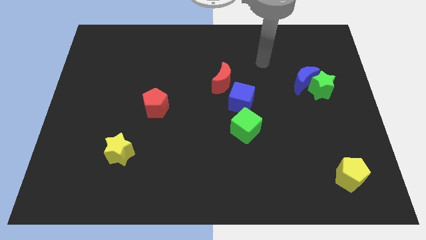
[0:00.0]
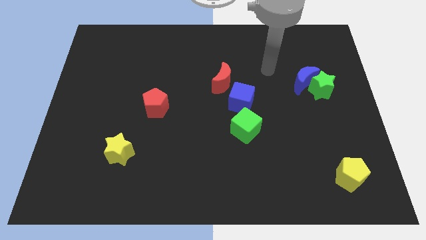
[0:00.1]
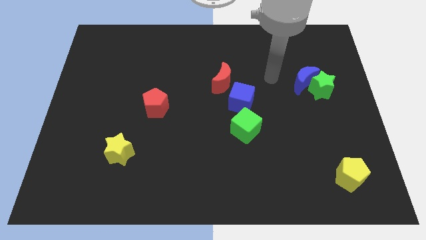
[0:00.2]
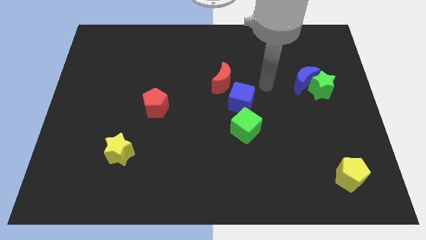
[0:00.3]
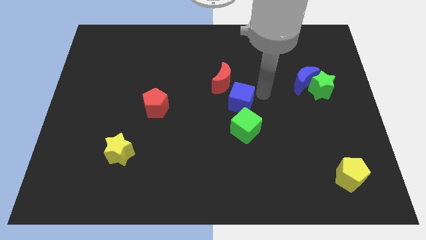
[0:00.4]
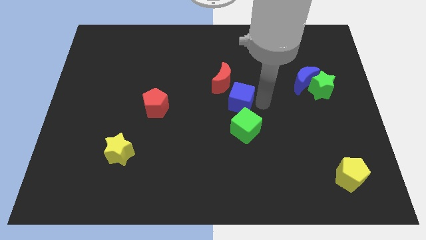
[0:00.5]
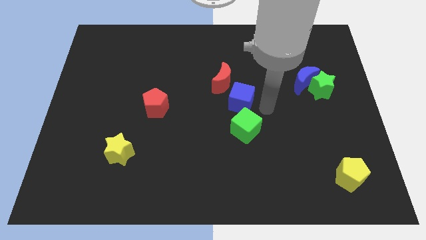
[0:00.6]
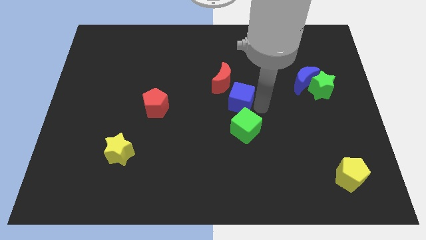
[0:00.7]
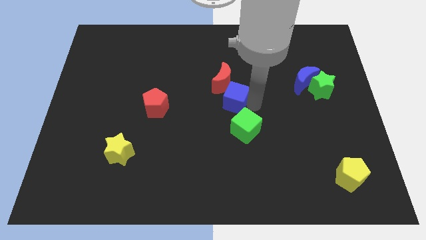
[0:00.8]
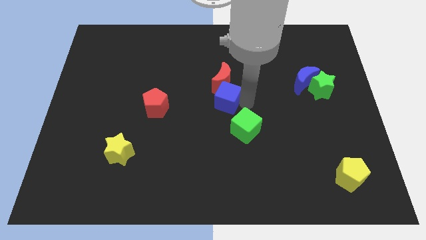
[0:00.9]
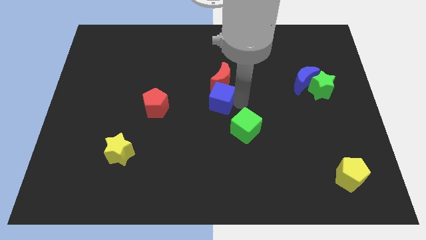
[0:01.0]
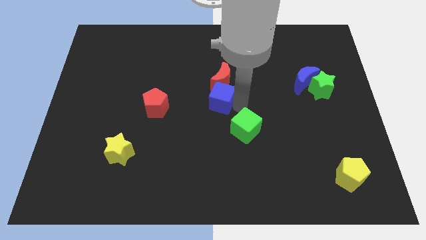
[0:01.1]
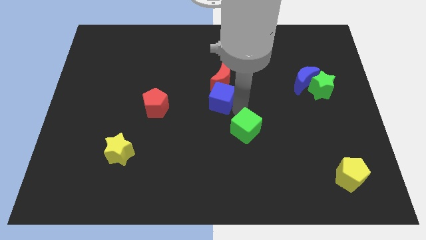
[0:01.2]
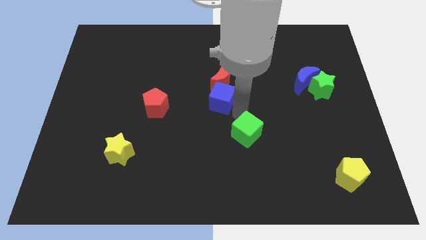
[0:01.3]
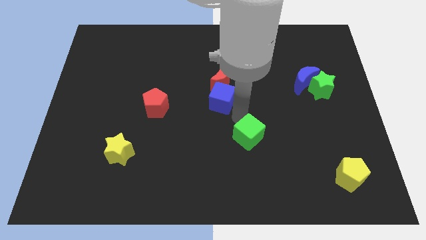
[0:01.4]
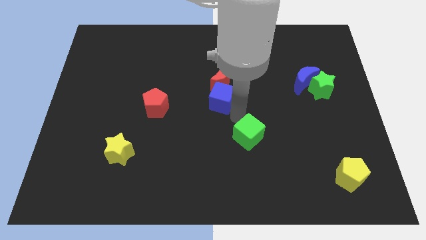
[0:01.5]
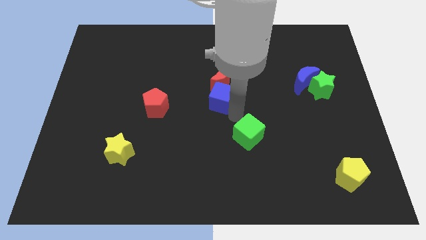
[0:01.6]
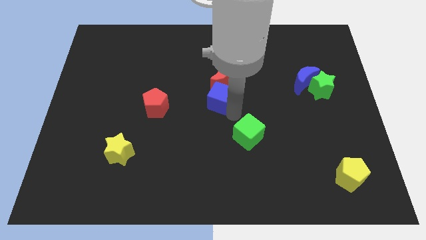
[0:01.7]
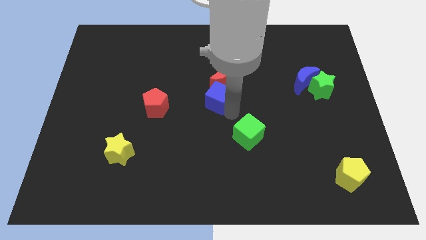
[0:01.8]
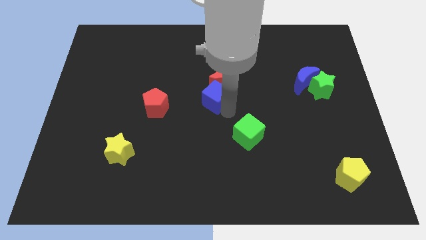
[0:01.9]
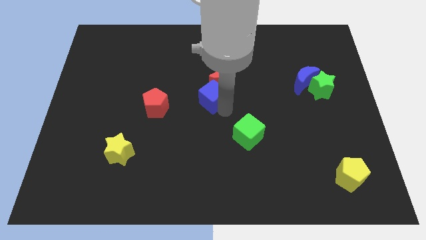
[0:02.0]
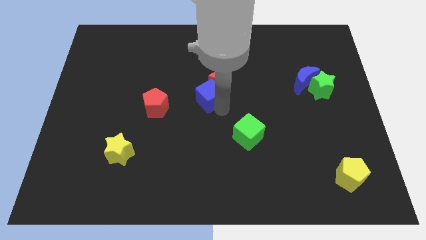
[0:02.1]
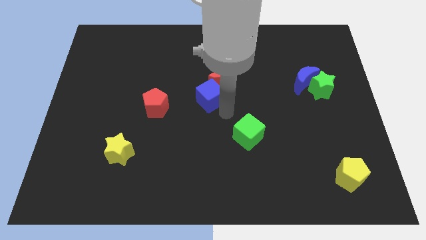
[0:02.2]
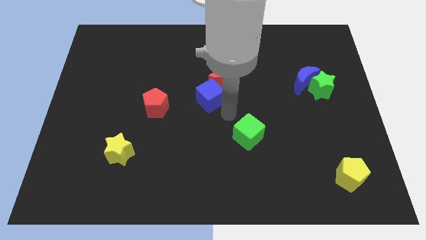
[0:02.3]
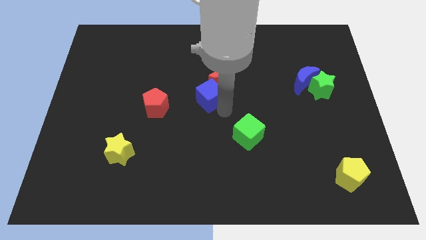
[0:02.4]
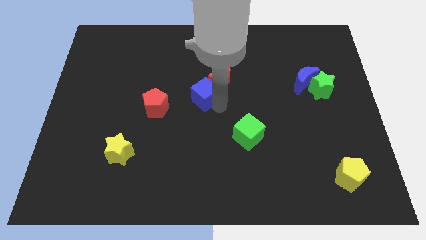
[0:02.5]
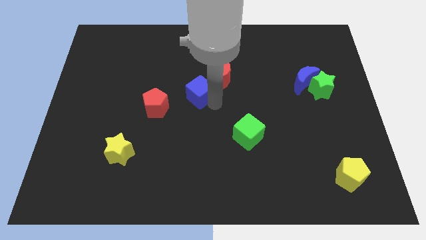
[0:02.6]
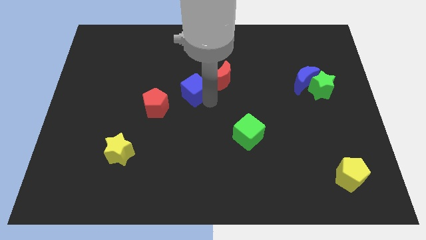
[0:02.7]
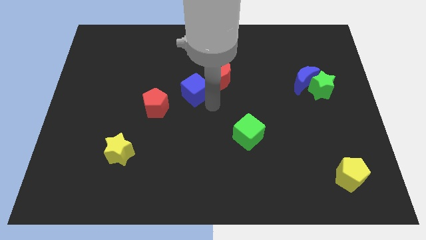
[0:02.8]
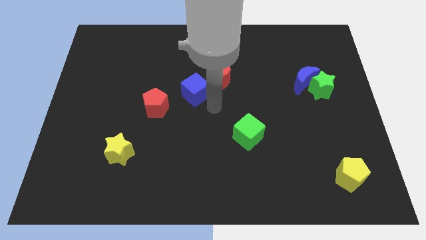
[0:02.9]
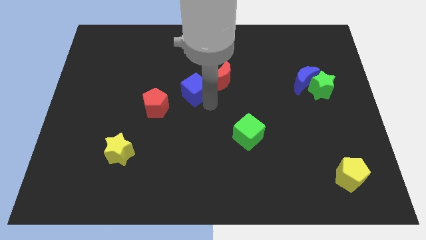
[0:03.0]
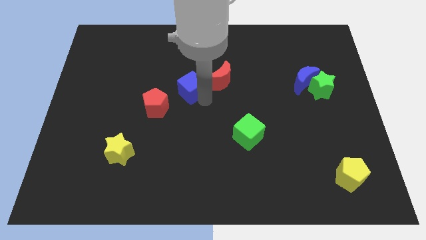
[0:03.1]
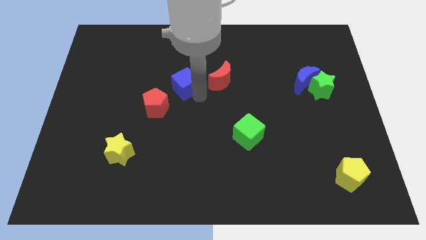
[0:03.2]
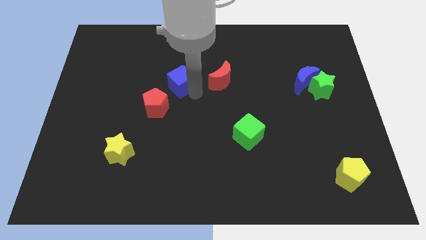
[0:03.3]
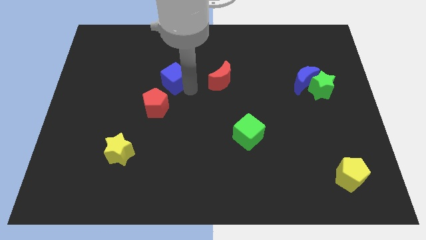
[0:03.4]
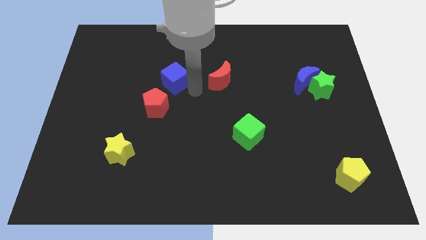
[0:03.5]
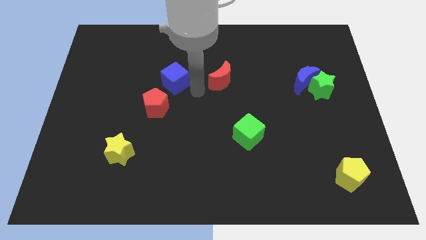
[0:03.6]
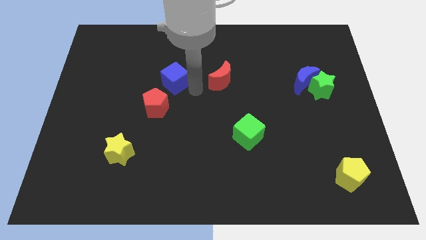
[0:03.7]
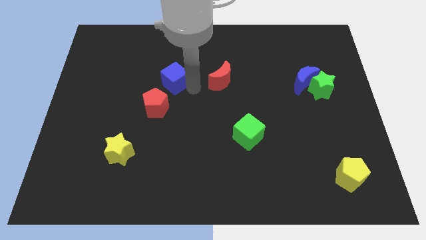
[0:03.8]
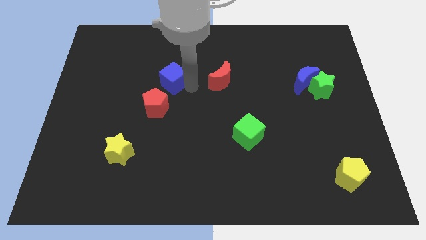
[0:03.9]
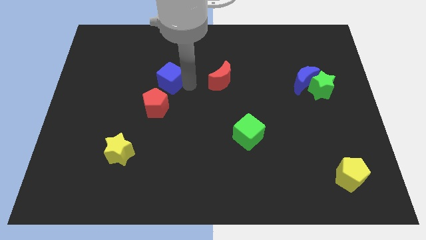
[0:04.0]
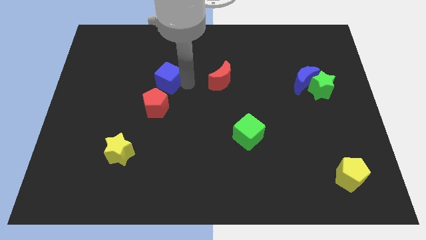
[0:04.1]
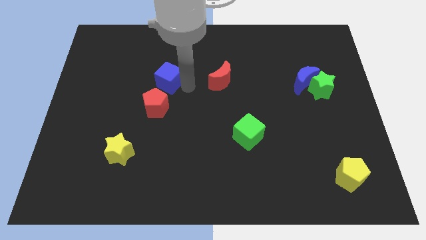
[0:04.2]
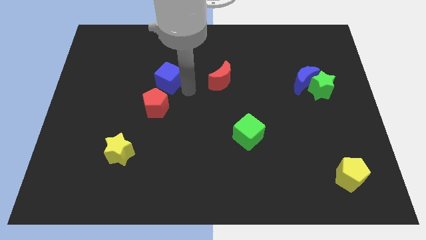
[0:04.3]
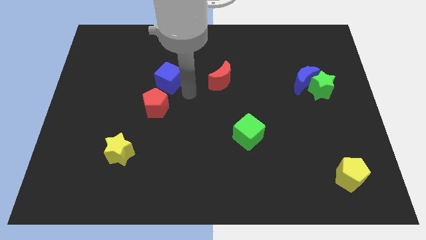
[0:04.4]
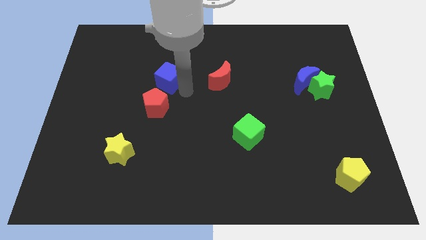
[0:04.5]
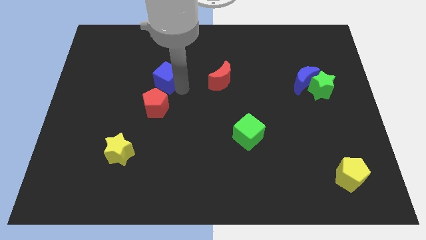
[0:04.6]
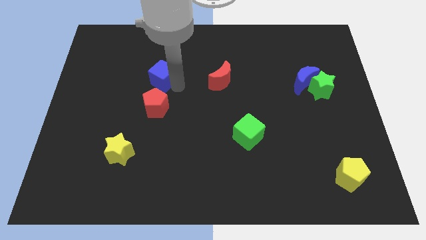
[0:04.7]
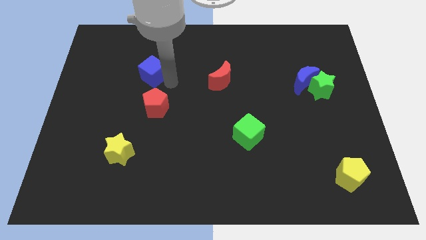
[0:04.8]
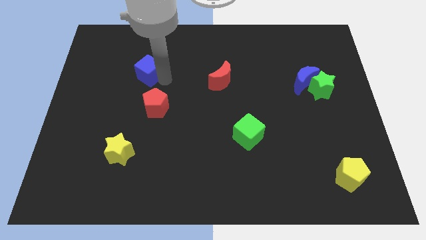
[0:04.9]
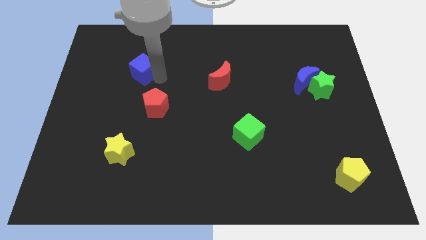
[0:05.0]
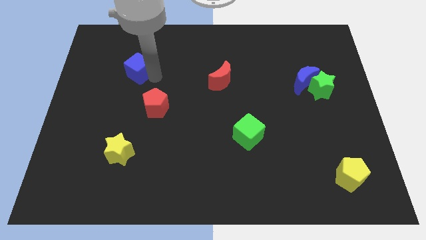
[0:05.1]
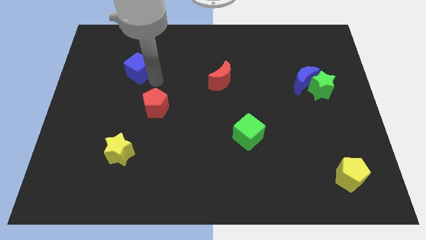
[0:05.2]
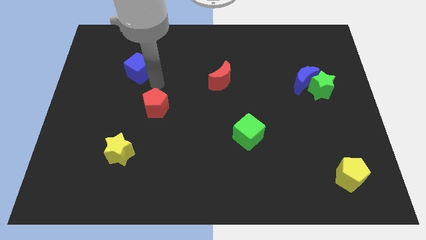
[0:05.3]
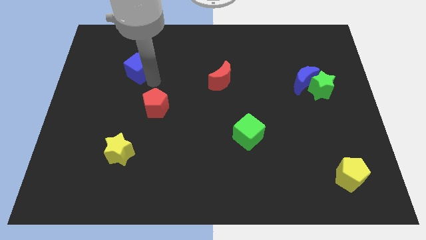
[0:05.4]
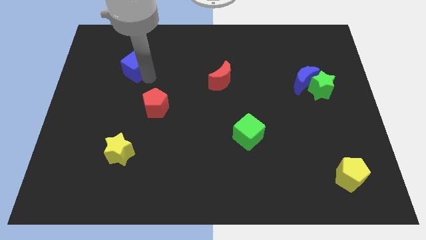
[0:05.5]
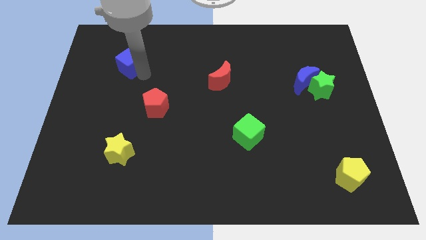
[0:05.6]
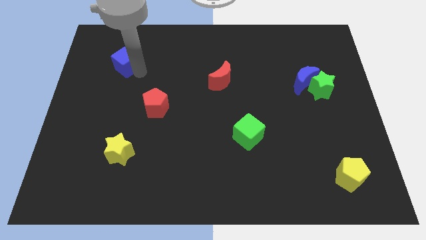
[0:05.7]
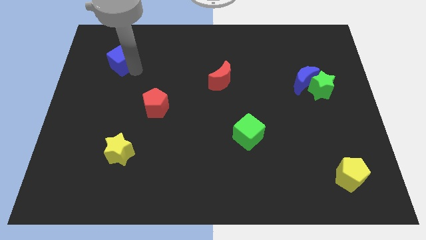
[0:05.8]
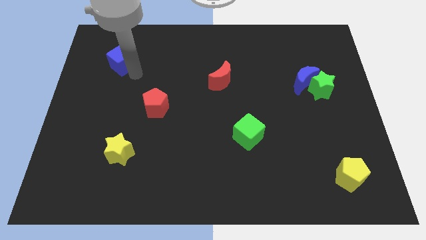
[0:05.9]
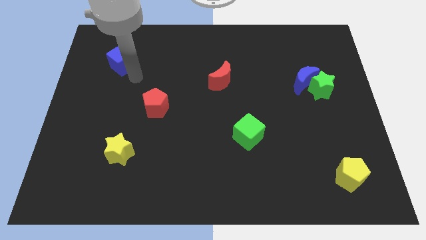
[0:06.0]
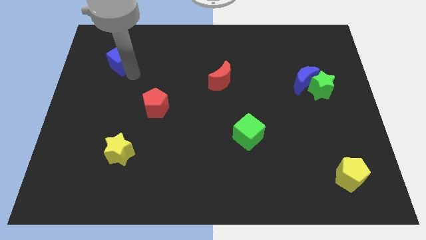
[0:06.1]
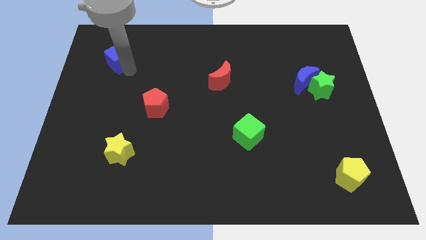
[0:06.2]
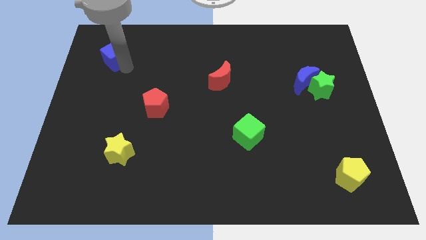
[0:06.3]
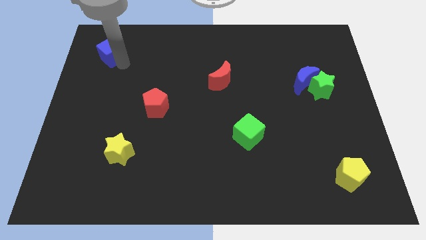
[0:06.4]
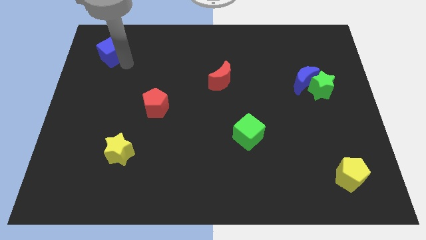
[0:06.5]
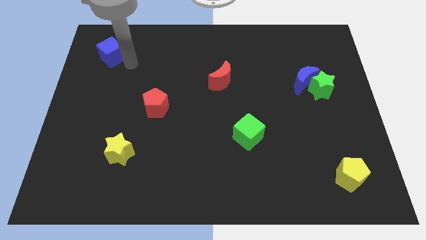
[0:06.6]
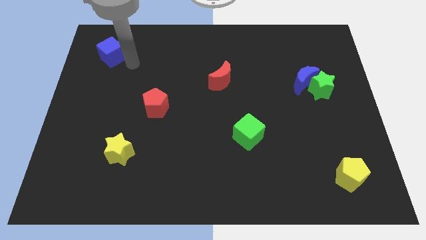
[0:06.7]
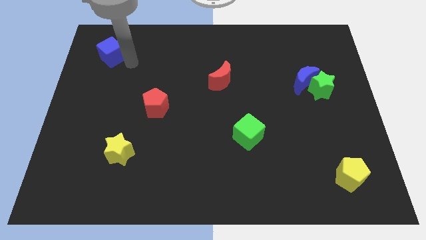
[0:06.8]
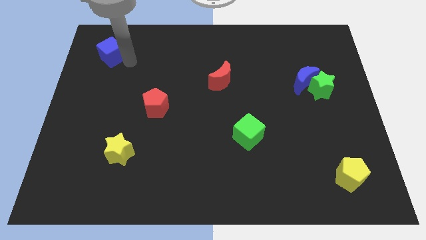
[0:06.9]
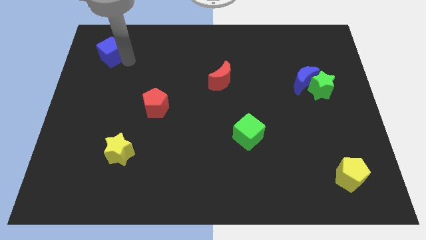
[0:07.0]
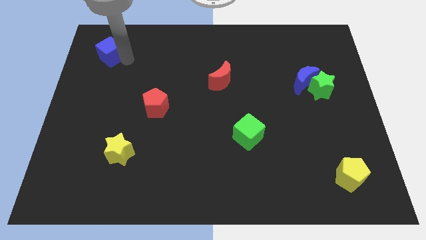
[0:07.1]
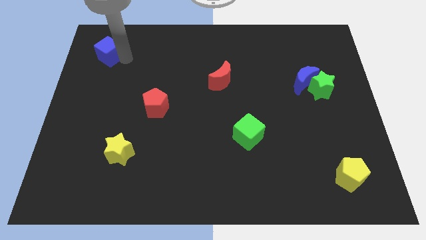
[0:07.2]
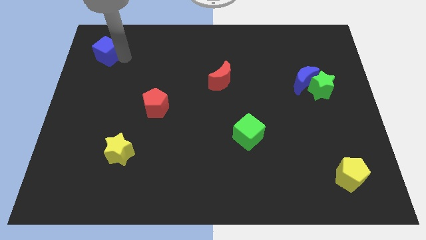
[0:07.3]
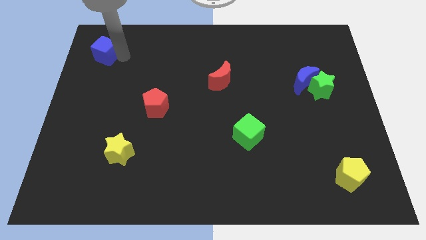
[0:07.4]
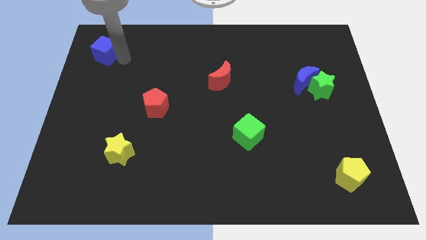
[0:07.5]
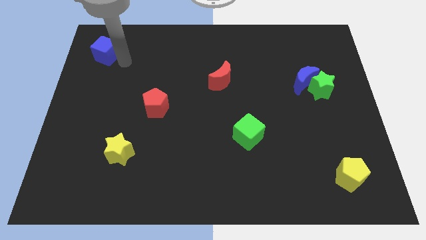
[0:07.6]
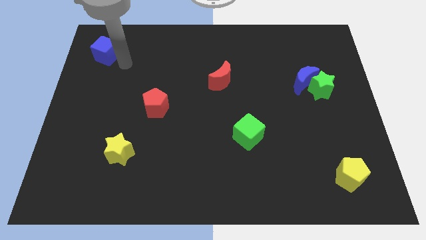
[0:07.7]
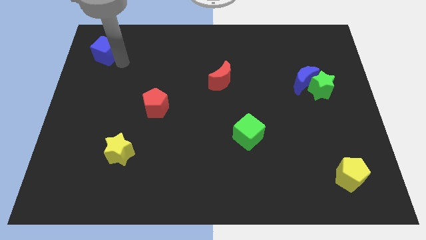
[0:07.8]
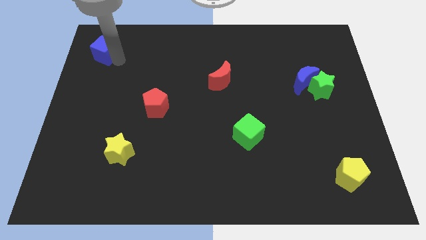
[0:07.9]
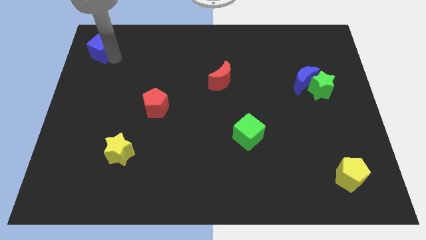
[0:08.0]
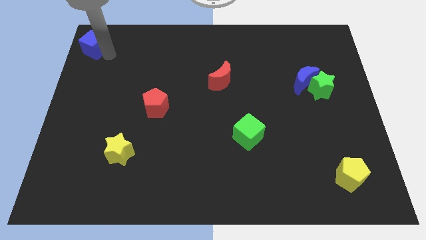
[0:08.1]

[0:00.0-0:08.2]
move the blue cube to the upper left corner
